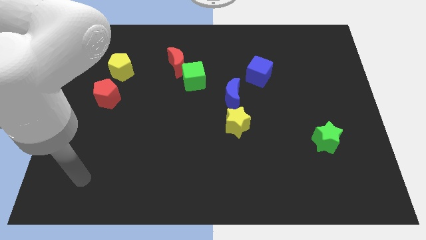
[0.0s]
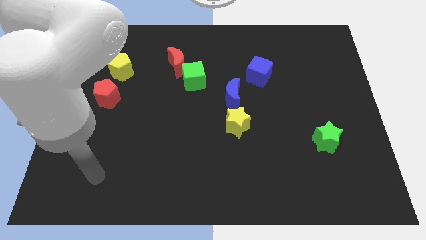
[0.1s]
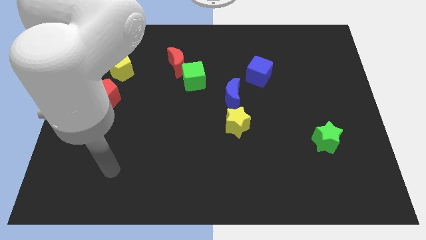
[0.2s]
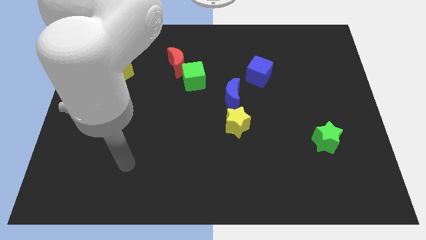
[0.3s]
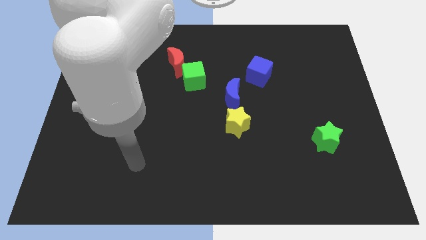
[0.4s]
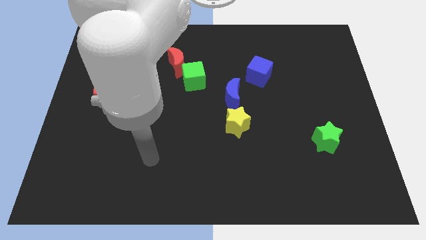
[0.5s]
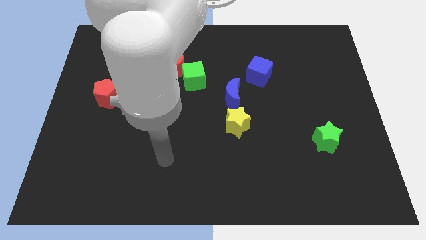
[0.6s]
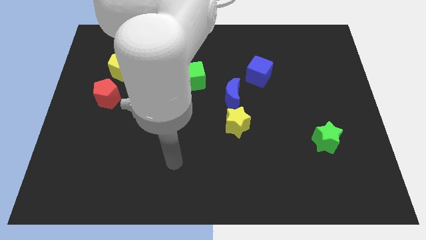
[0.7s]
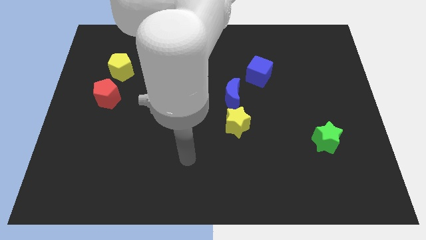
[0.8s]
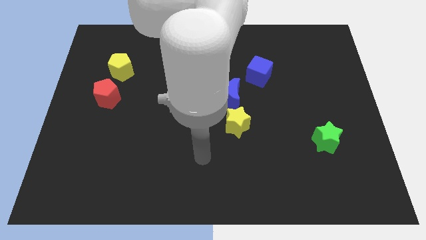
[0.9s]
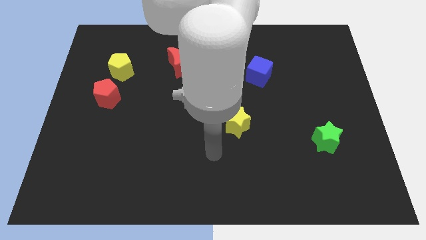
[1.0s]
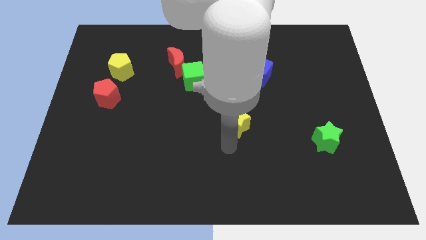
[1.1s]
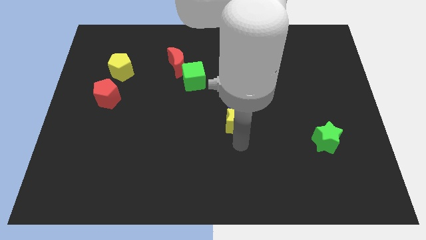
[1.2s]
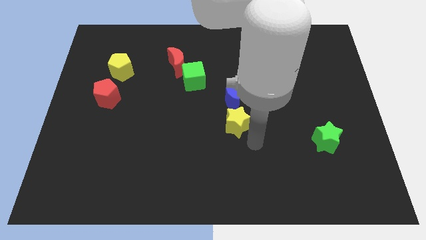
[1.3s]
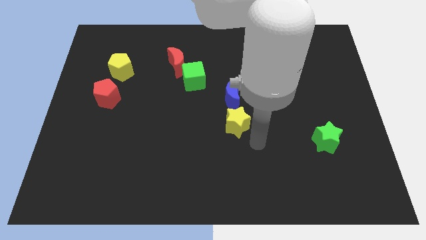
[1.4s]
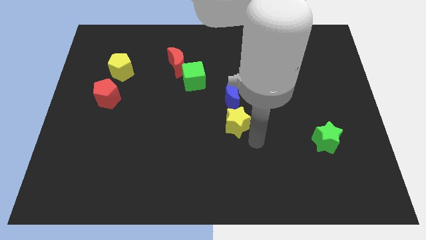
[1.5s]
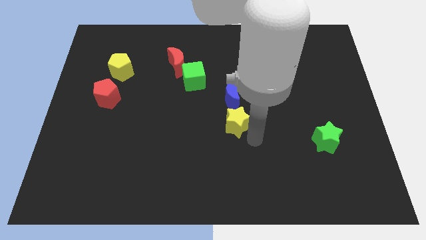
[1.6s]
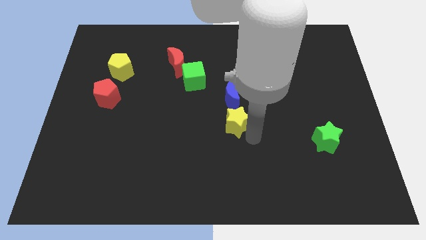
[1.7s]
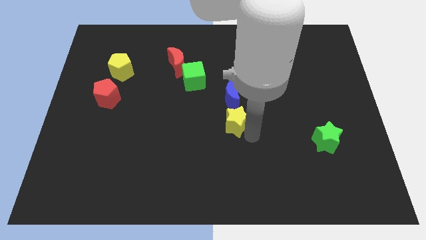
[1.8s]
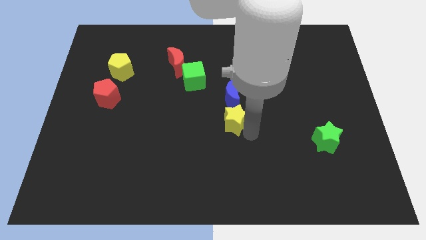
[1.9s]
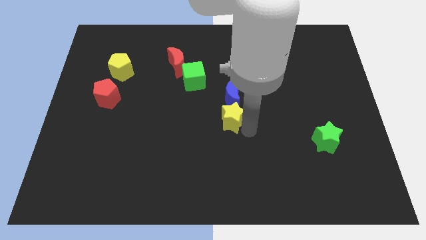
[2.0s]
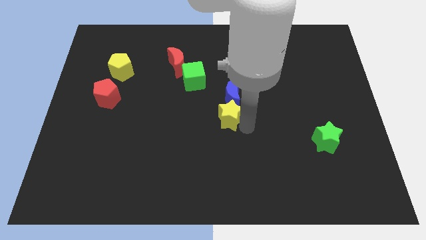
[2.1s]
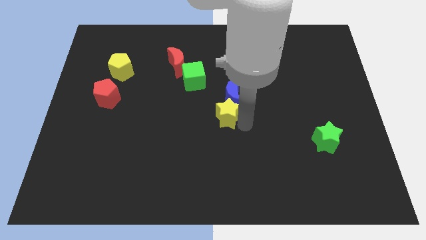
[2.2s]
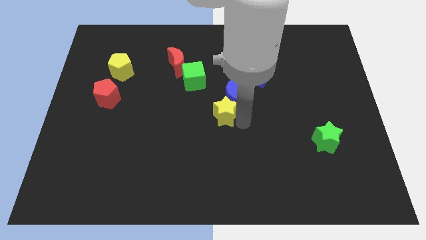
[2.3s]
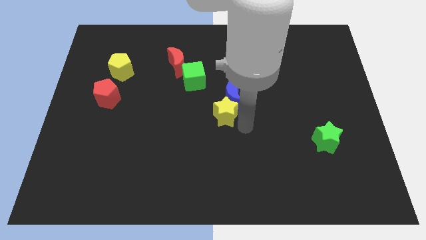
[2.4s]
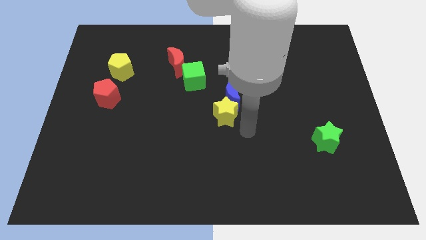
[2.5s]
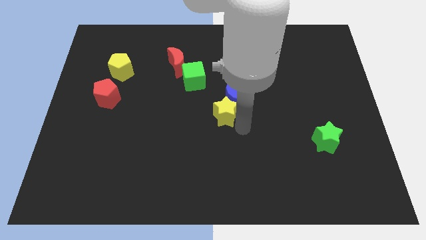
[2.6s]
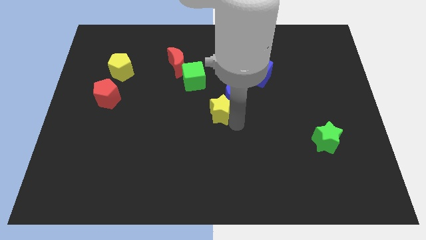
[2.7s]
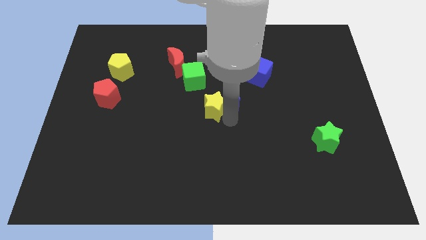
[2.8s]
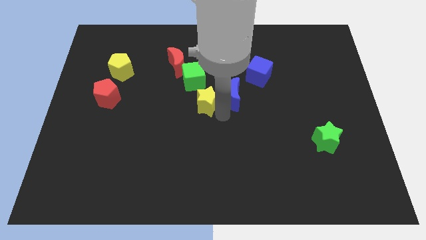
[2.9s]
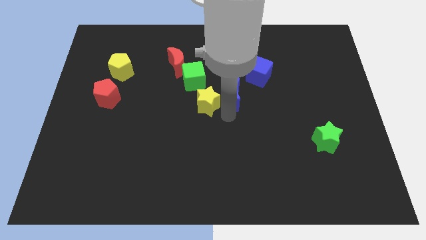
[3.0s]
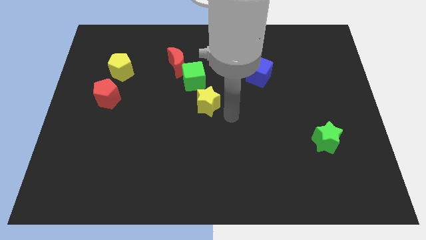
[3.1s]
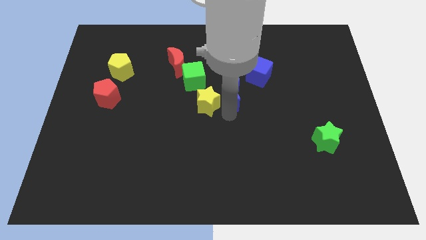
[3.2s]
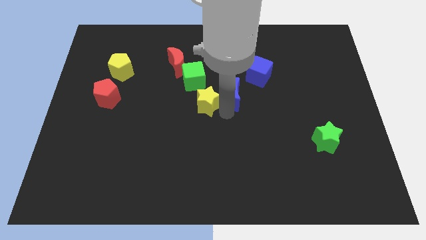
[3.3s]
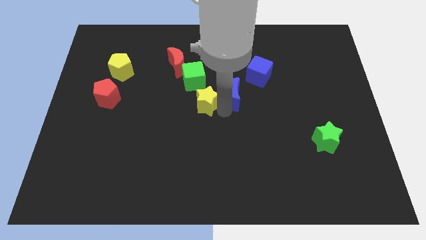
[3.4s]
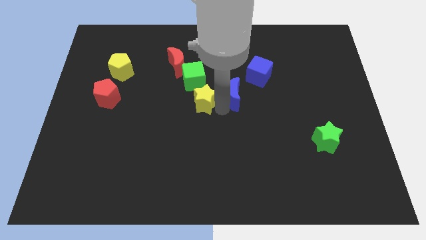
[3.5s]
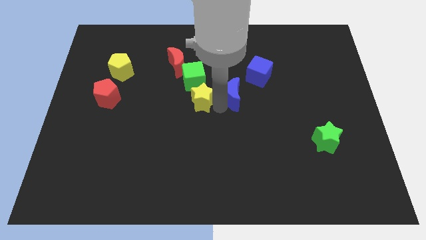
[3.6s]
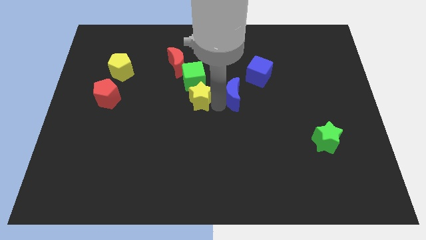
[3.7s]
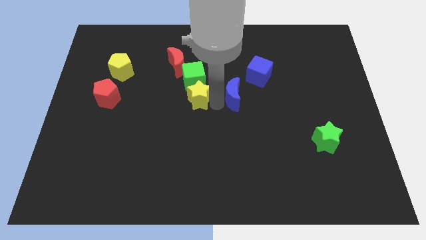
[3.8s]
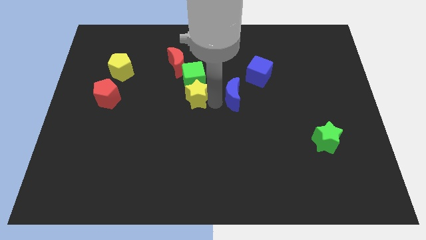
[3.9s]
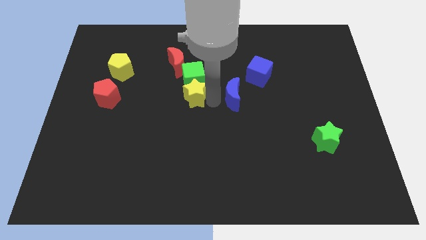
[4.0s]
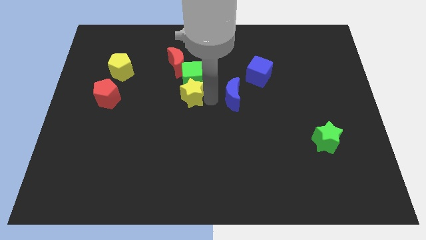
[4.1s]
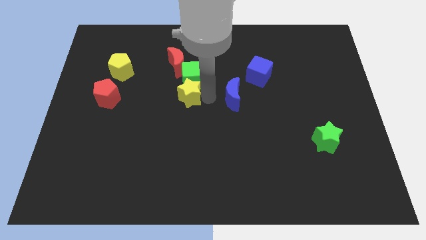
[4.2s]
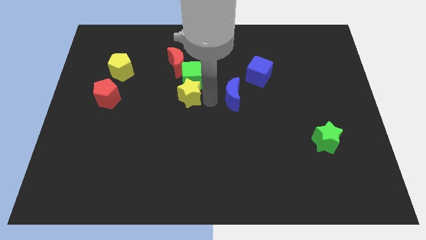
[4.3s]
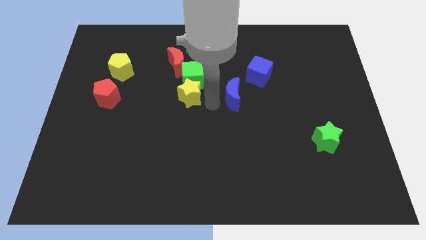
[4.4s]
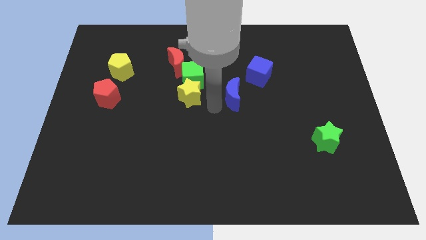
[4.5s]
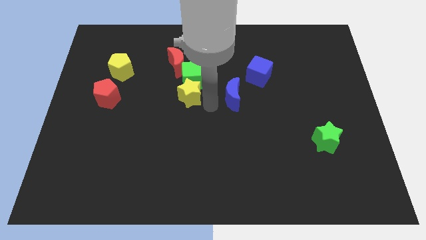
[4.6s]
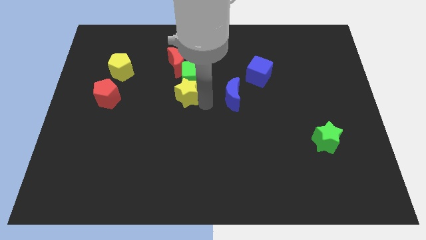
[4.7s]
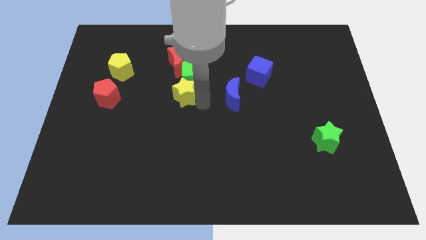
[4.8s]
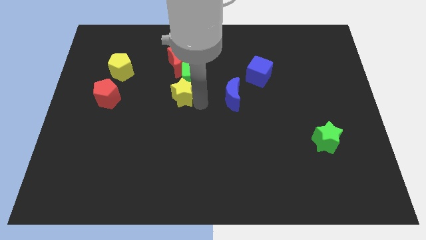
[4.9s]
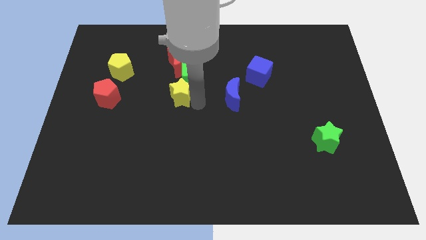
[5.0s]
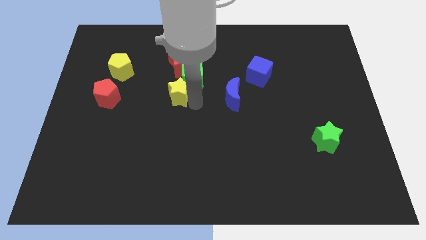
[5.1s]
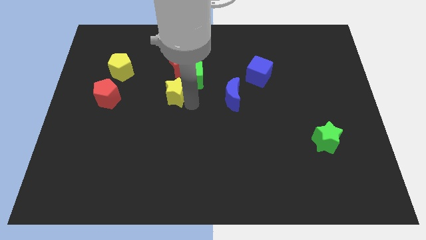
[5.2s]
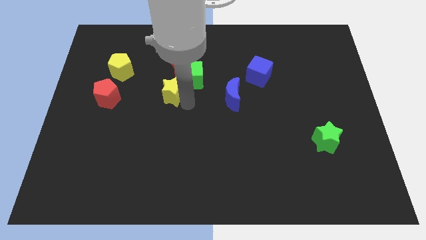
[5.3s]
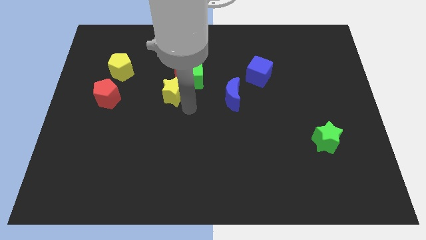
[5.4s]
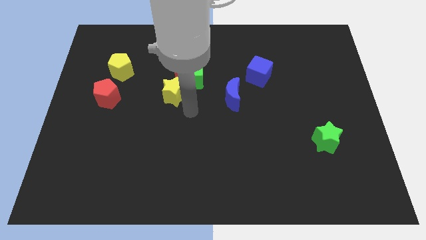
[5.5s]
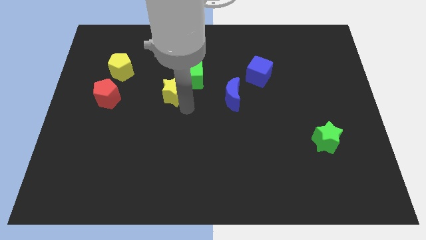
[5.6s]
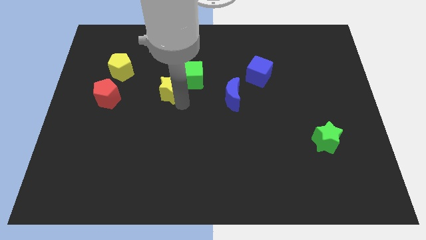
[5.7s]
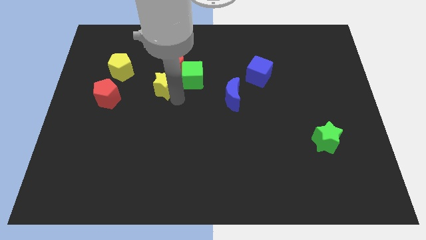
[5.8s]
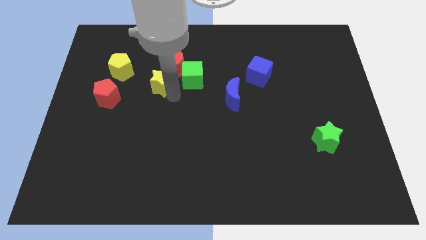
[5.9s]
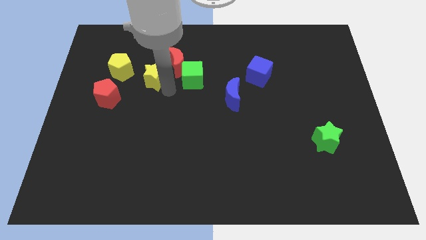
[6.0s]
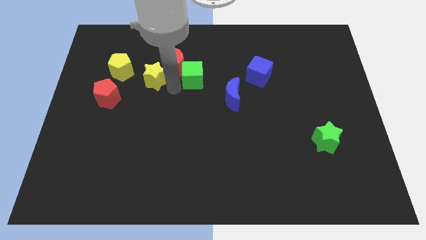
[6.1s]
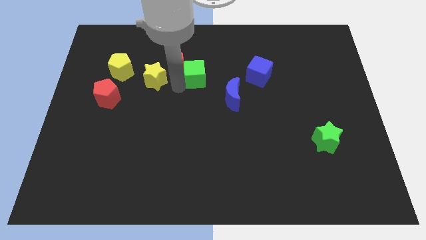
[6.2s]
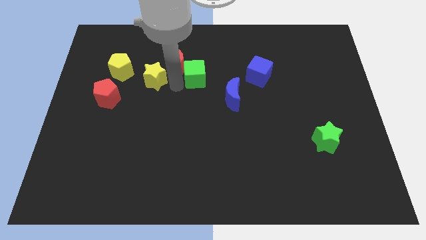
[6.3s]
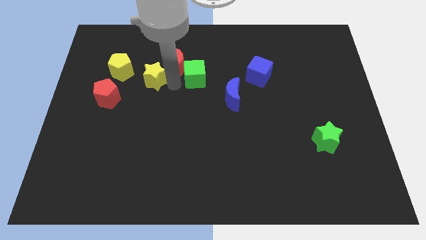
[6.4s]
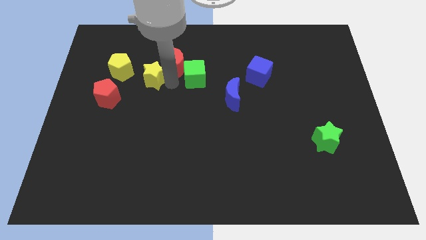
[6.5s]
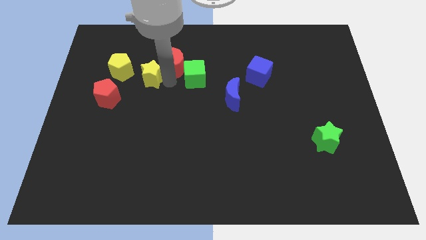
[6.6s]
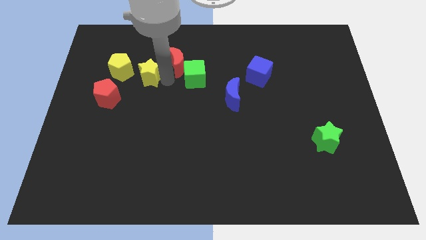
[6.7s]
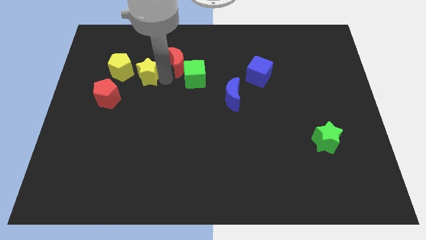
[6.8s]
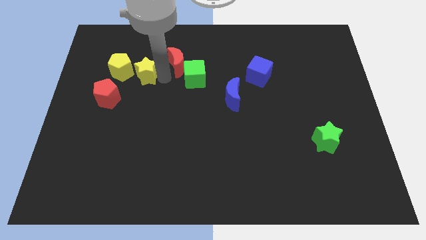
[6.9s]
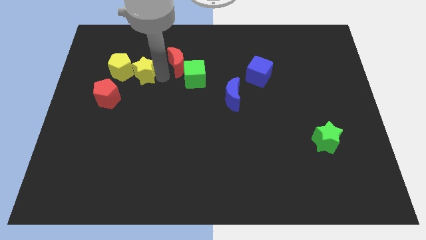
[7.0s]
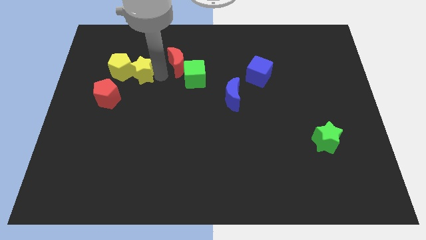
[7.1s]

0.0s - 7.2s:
slide the yellow star next to the yellow pentagon
